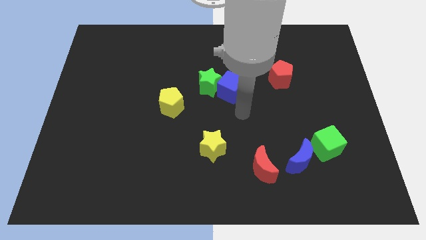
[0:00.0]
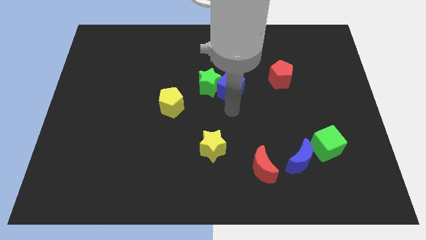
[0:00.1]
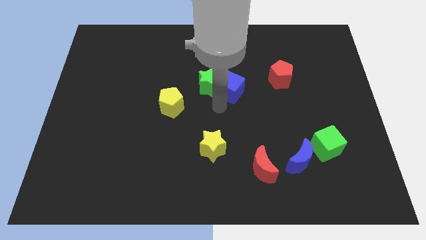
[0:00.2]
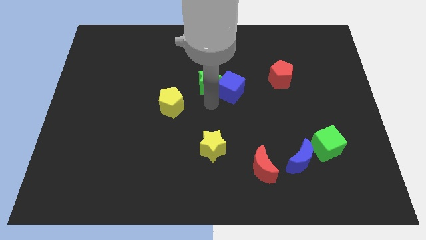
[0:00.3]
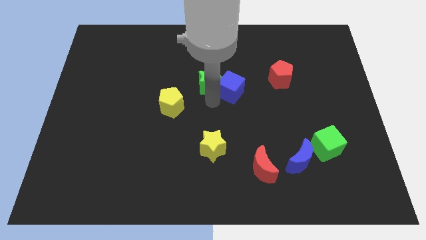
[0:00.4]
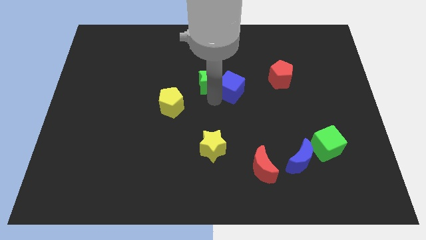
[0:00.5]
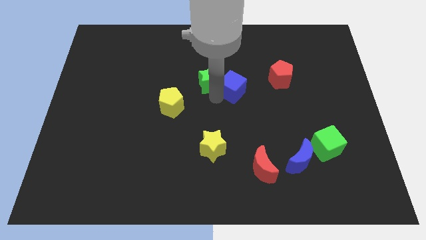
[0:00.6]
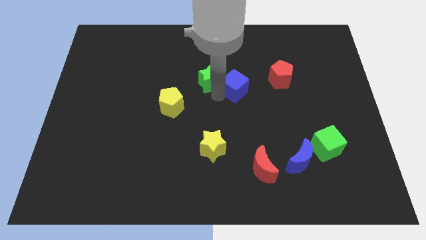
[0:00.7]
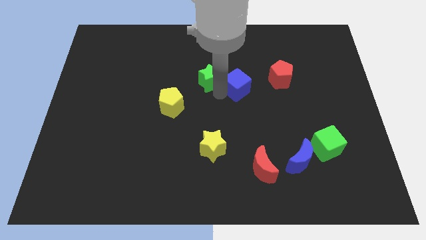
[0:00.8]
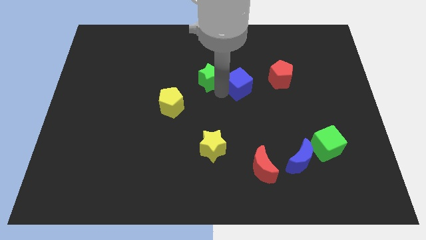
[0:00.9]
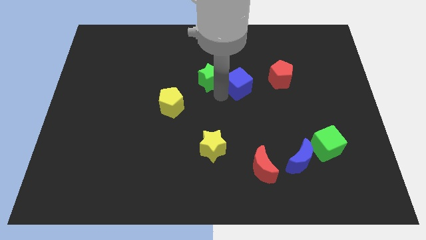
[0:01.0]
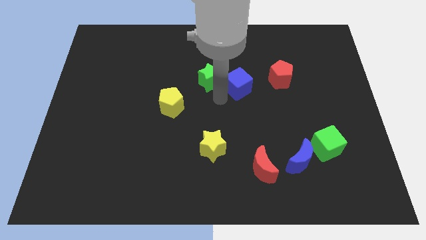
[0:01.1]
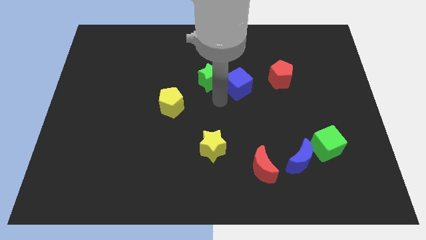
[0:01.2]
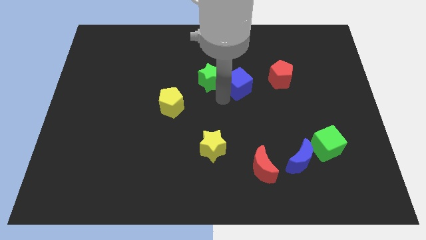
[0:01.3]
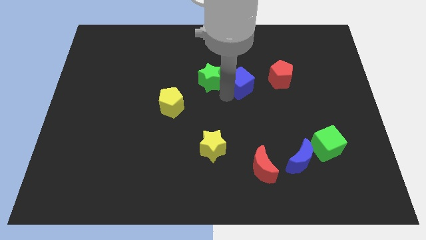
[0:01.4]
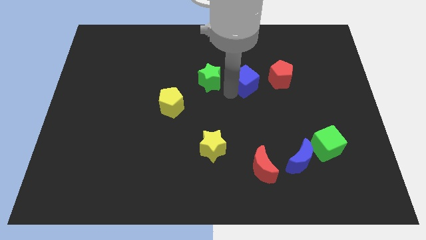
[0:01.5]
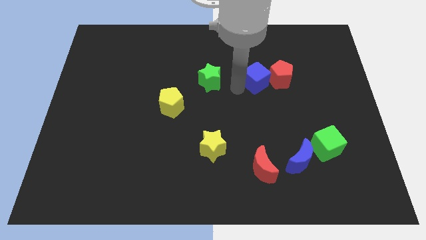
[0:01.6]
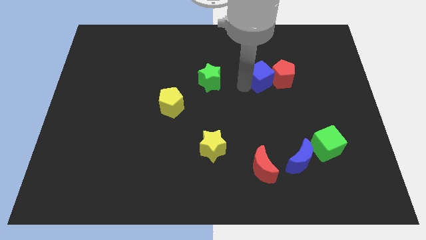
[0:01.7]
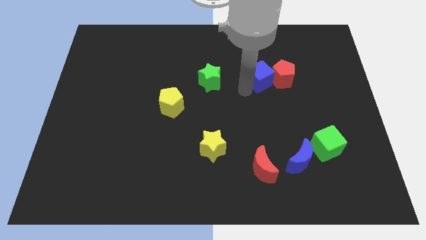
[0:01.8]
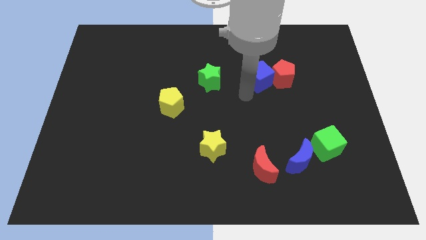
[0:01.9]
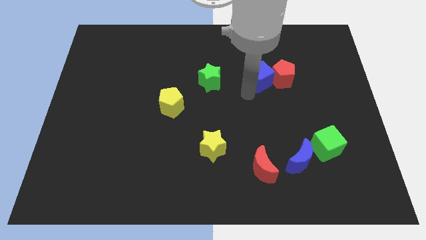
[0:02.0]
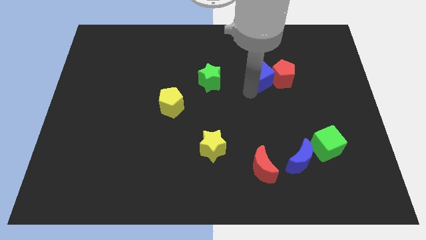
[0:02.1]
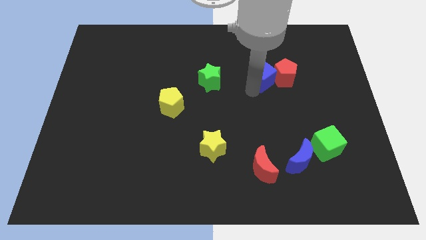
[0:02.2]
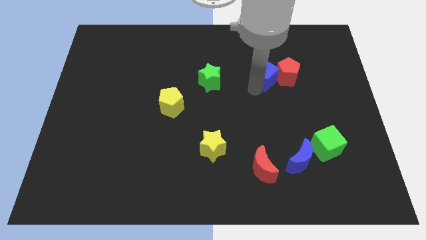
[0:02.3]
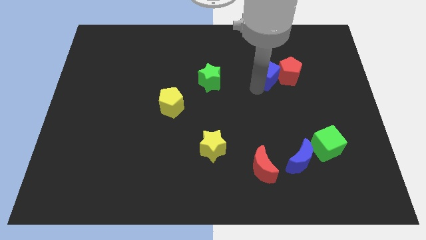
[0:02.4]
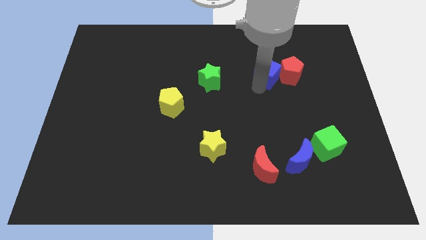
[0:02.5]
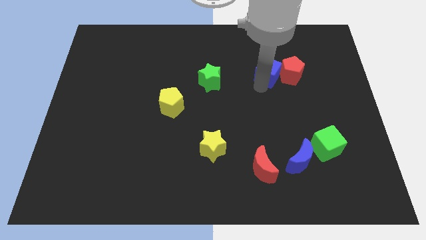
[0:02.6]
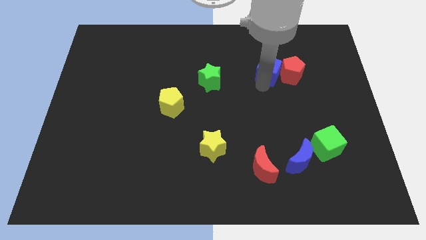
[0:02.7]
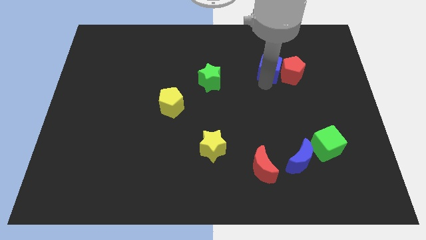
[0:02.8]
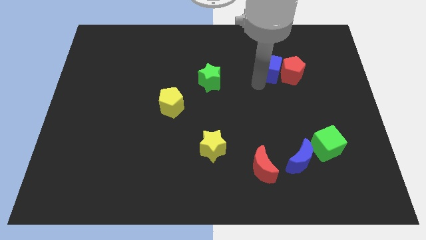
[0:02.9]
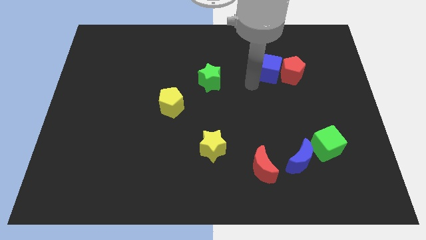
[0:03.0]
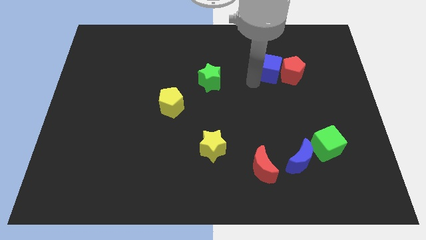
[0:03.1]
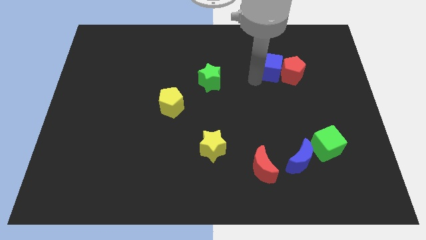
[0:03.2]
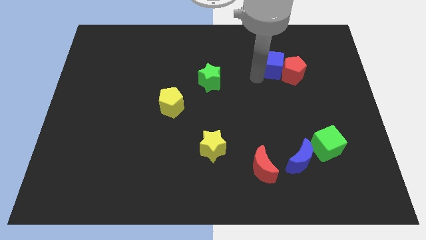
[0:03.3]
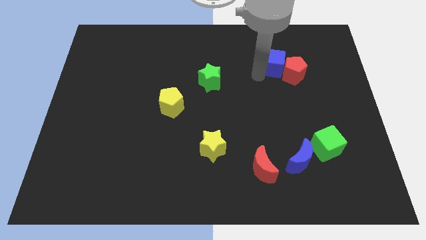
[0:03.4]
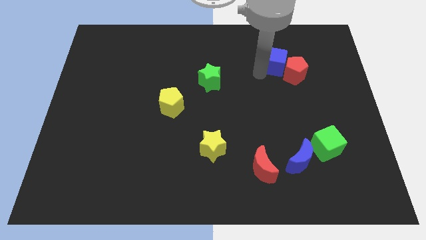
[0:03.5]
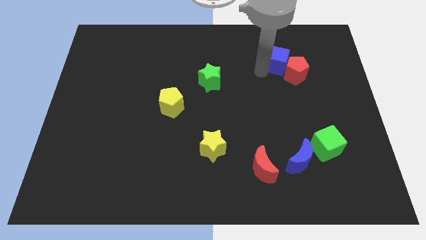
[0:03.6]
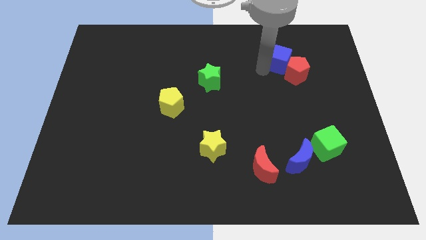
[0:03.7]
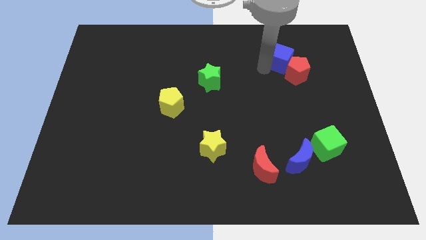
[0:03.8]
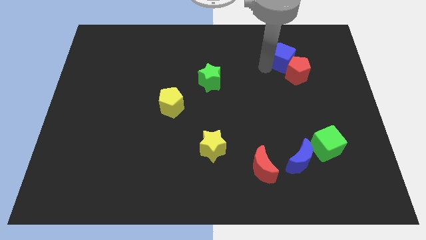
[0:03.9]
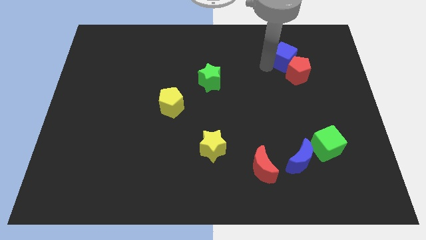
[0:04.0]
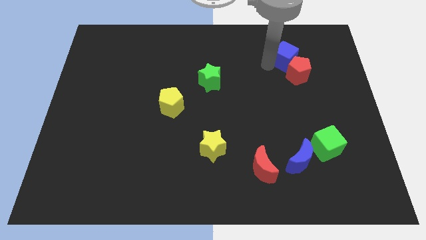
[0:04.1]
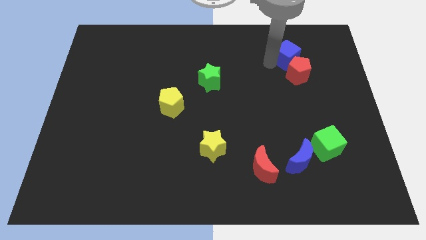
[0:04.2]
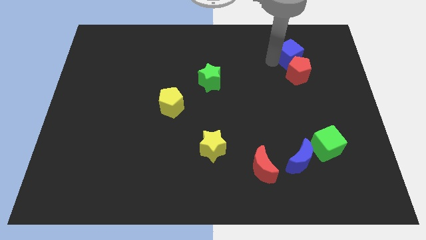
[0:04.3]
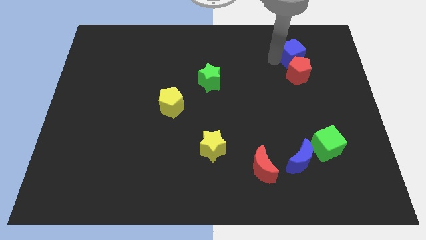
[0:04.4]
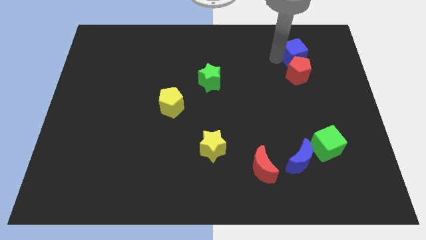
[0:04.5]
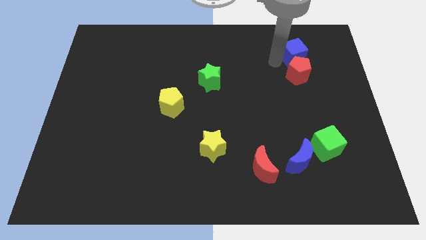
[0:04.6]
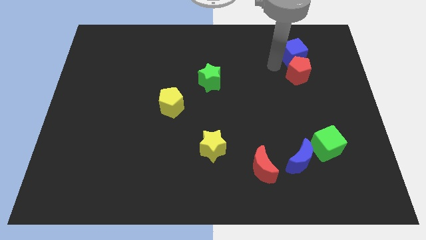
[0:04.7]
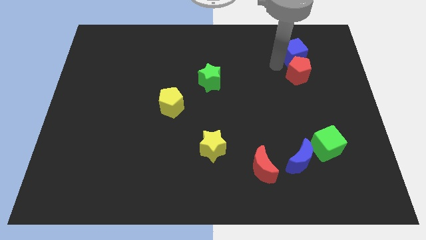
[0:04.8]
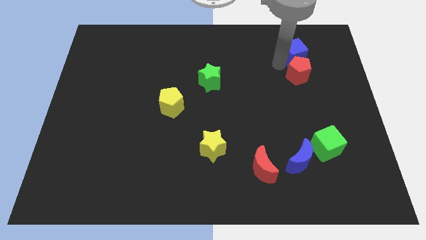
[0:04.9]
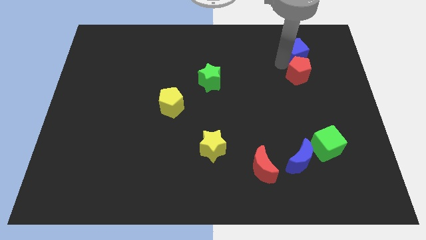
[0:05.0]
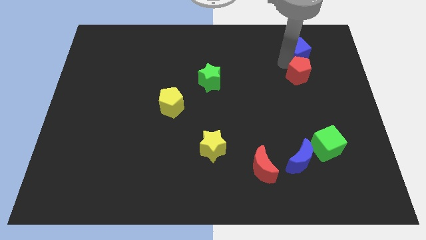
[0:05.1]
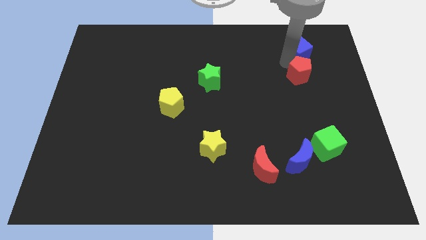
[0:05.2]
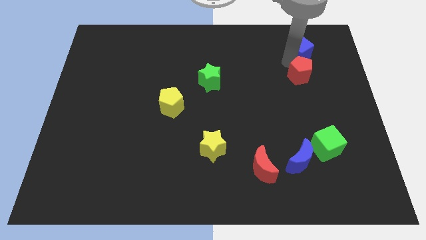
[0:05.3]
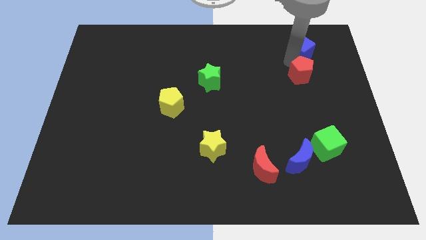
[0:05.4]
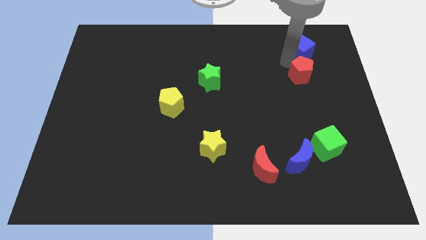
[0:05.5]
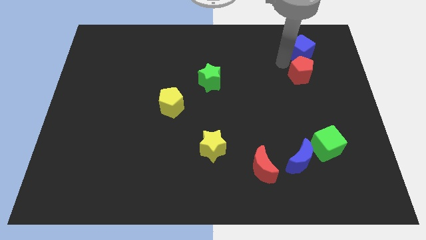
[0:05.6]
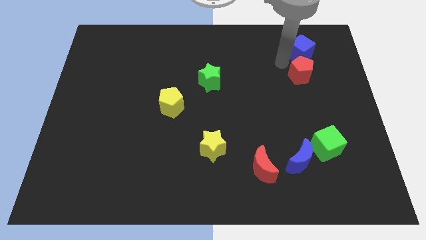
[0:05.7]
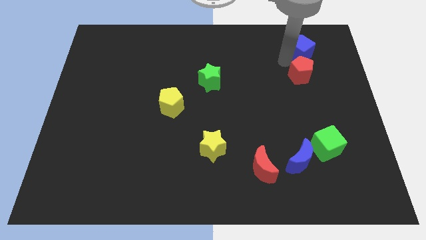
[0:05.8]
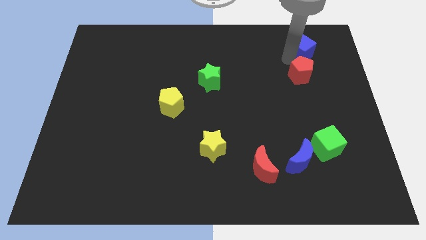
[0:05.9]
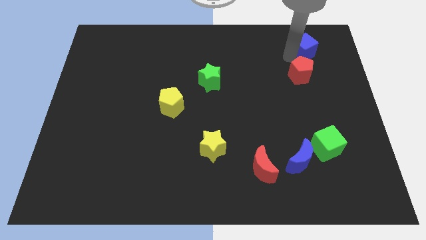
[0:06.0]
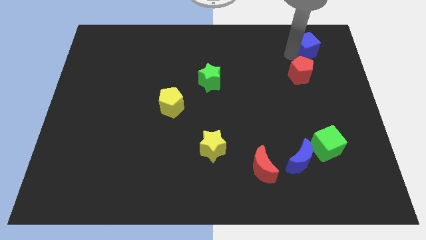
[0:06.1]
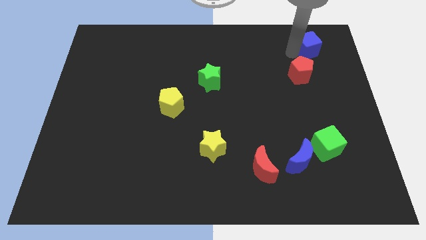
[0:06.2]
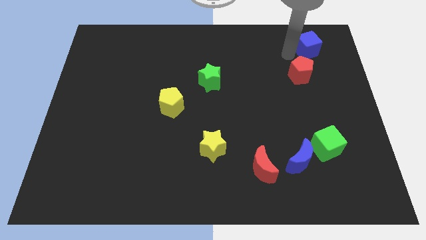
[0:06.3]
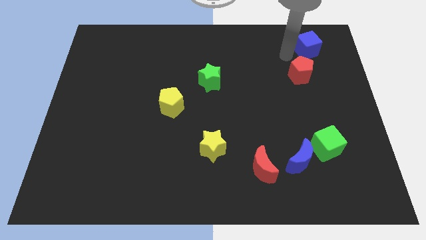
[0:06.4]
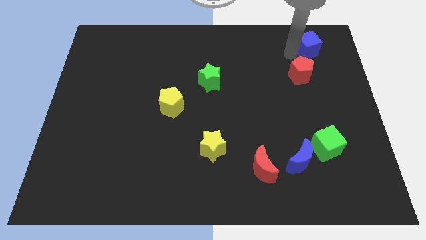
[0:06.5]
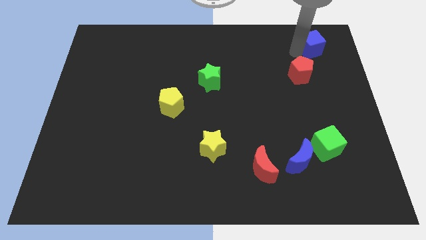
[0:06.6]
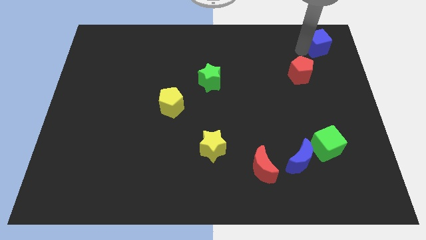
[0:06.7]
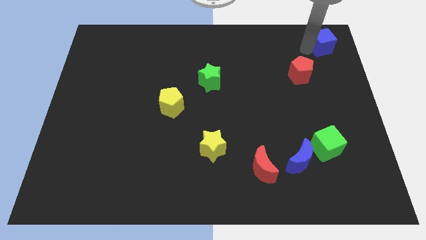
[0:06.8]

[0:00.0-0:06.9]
slide the blue cube to the top right
